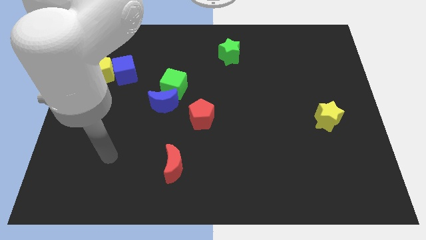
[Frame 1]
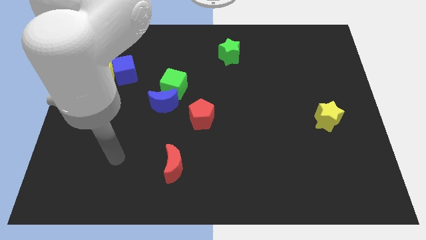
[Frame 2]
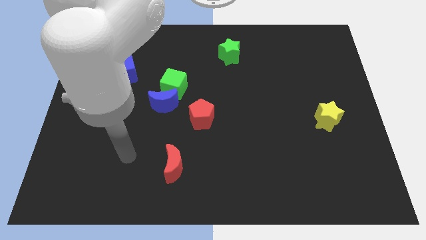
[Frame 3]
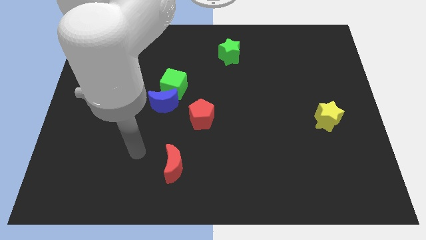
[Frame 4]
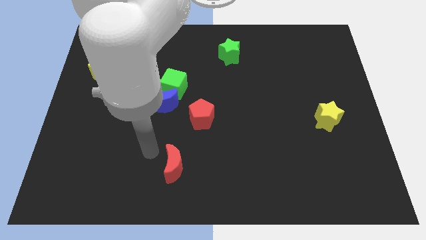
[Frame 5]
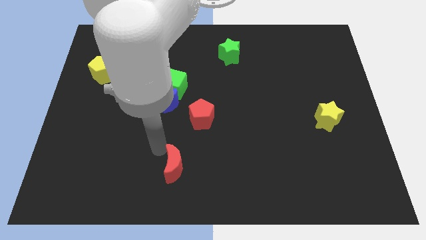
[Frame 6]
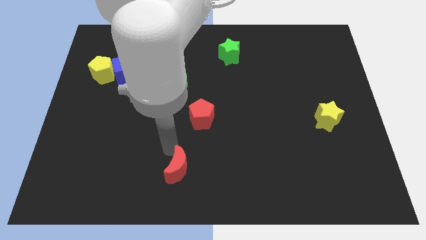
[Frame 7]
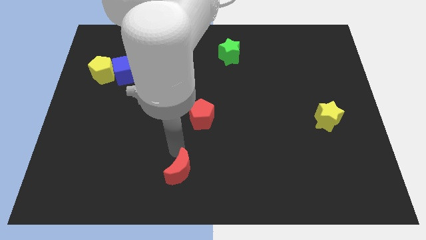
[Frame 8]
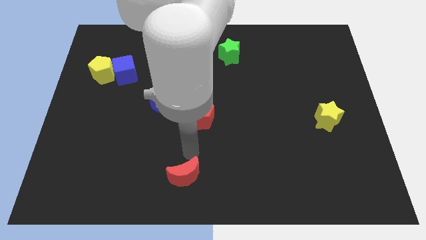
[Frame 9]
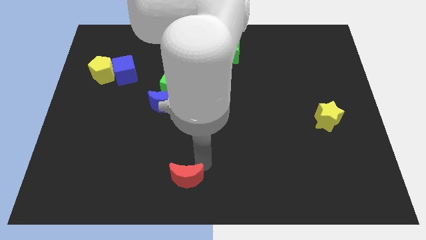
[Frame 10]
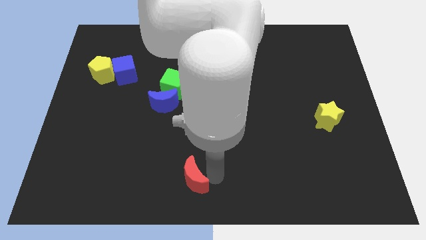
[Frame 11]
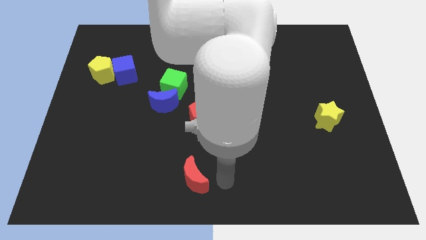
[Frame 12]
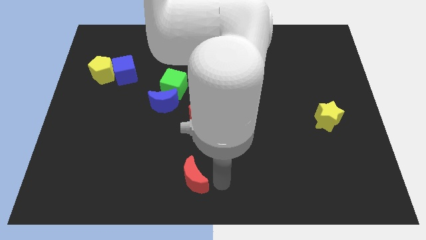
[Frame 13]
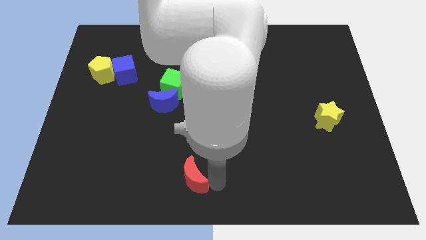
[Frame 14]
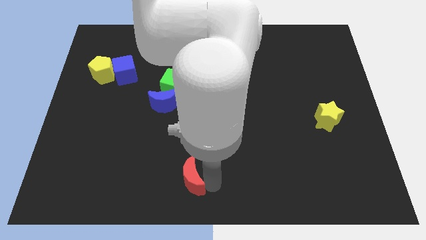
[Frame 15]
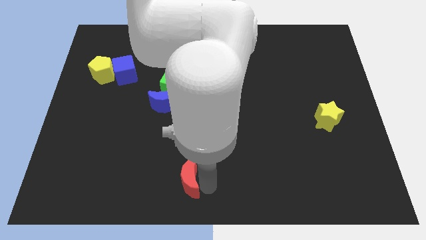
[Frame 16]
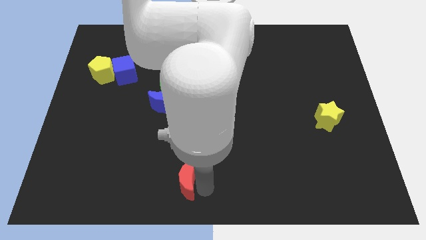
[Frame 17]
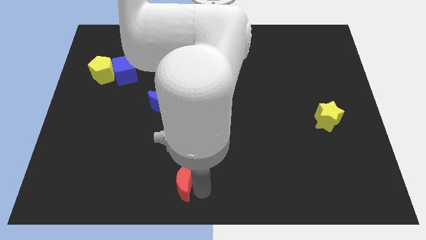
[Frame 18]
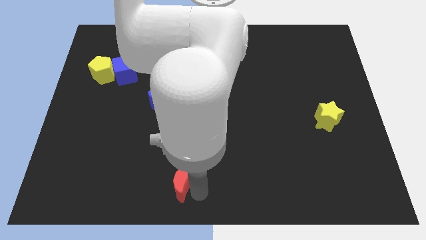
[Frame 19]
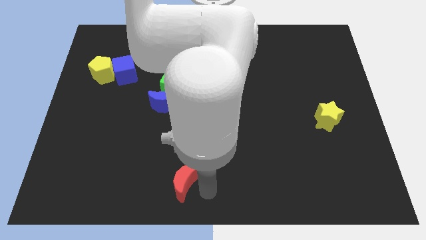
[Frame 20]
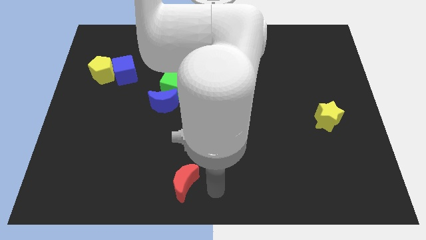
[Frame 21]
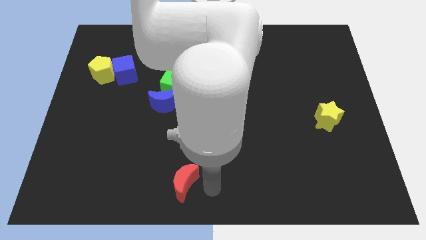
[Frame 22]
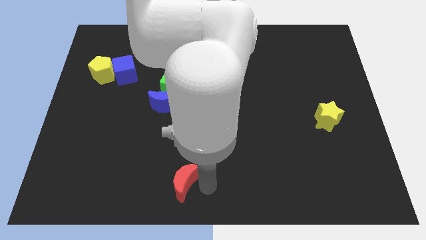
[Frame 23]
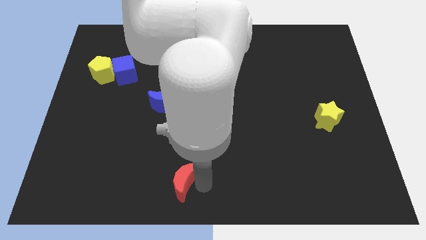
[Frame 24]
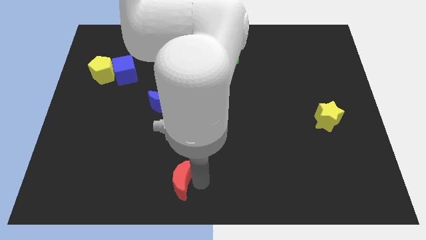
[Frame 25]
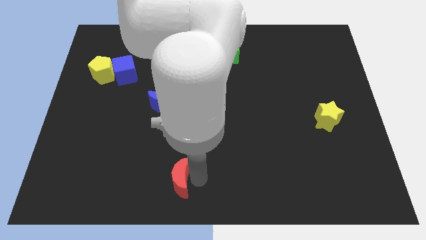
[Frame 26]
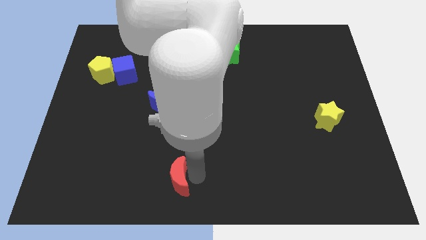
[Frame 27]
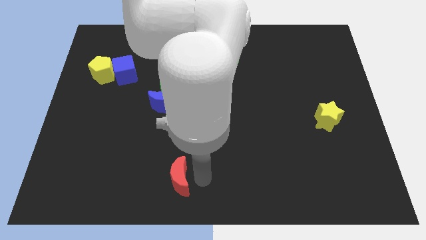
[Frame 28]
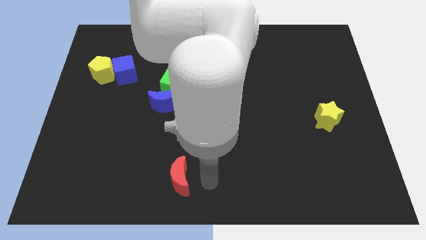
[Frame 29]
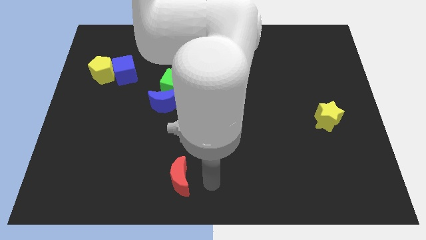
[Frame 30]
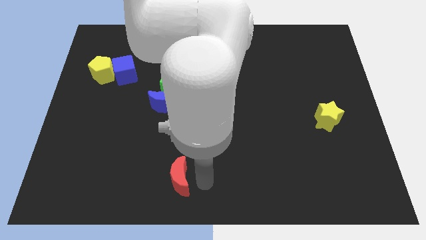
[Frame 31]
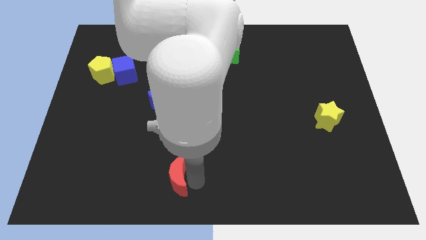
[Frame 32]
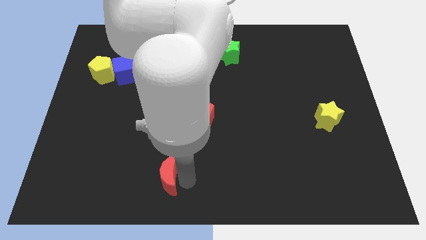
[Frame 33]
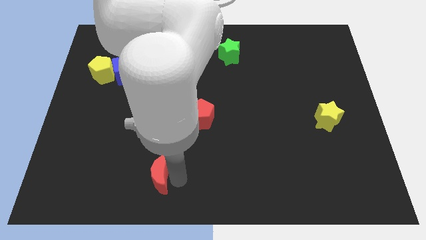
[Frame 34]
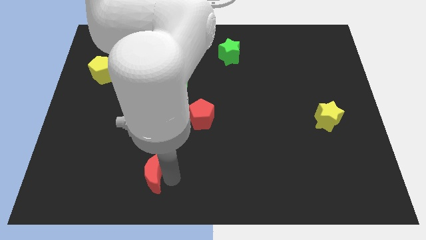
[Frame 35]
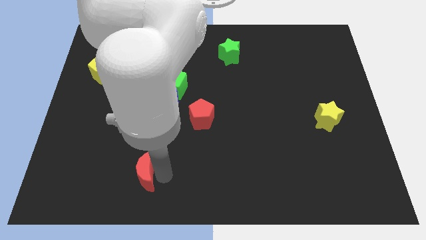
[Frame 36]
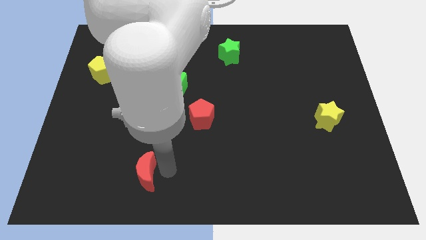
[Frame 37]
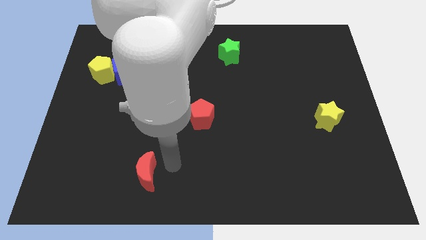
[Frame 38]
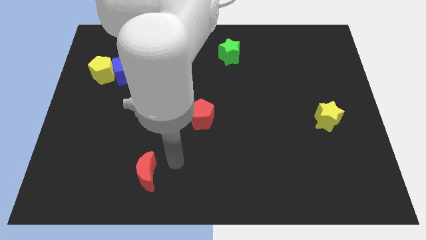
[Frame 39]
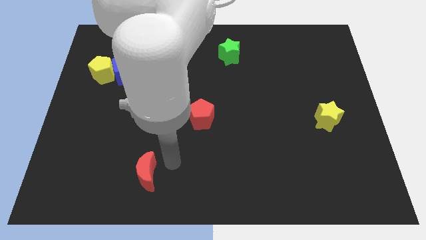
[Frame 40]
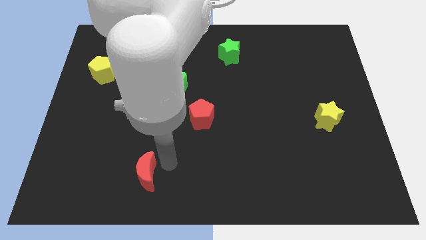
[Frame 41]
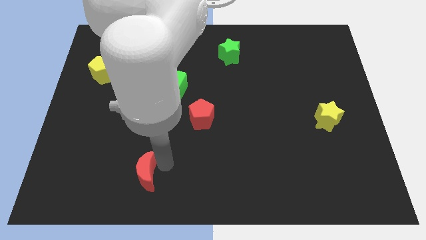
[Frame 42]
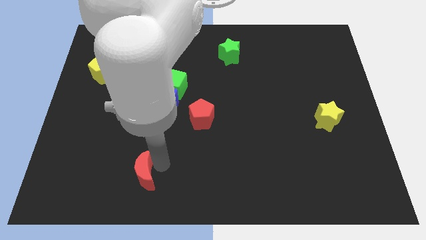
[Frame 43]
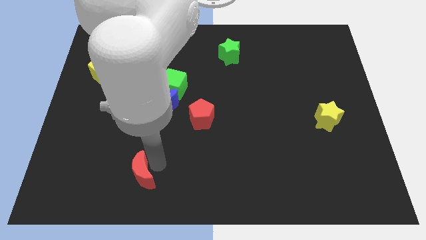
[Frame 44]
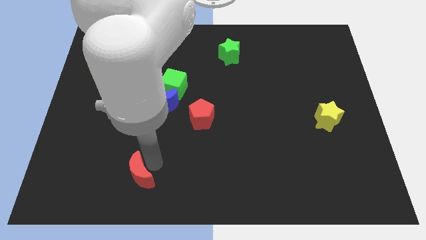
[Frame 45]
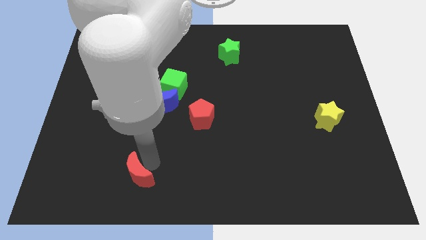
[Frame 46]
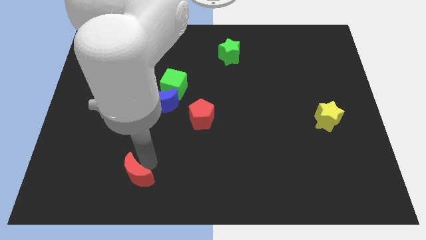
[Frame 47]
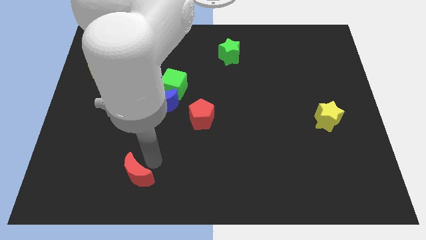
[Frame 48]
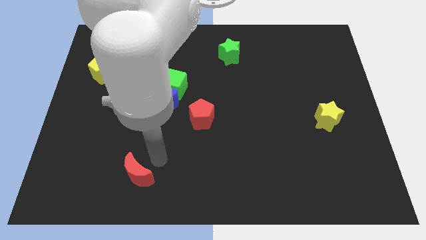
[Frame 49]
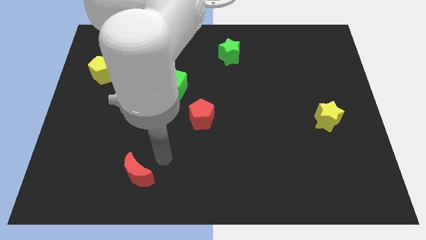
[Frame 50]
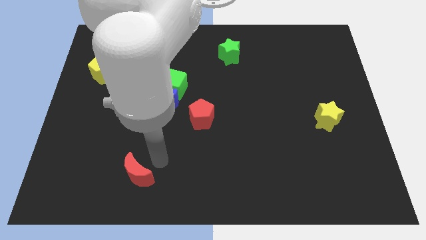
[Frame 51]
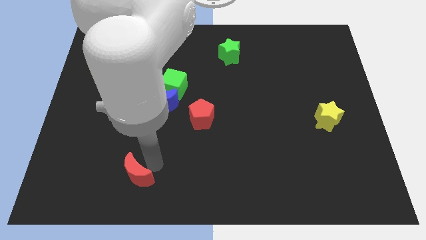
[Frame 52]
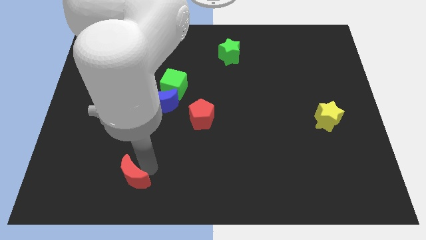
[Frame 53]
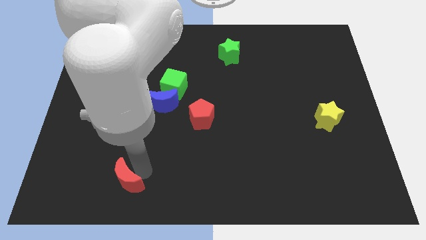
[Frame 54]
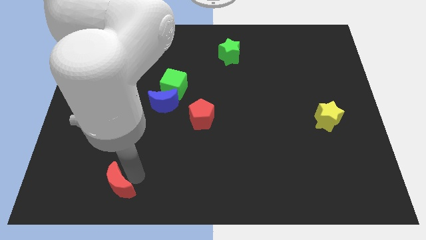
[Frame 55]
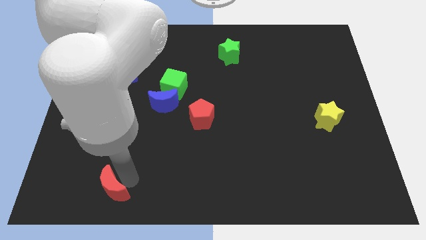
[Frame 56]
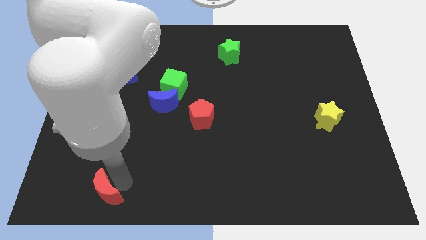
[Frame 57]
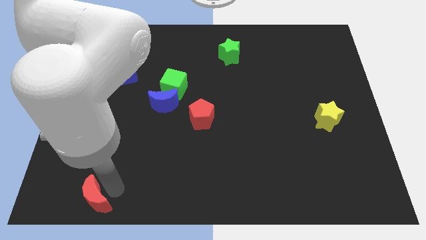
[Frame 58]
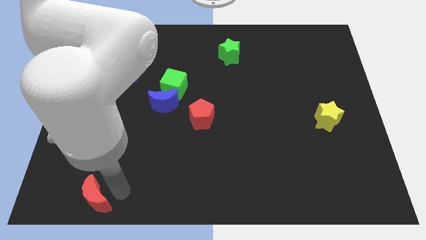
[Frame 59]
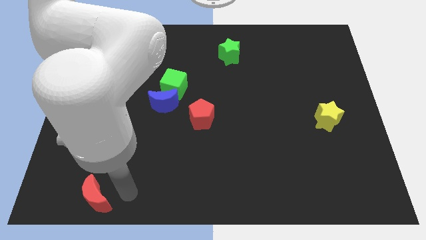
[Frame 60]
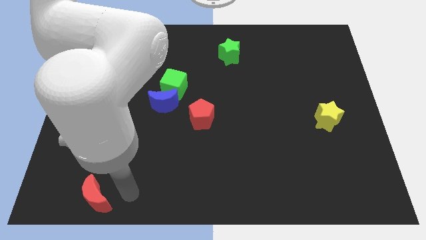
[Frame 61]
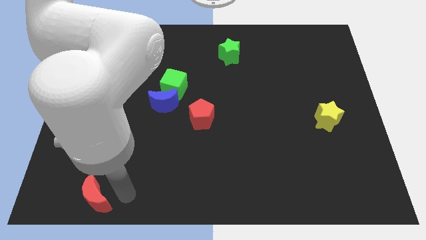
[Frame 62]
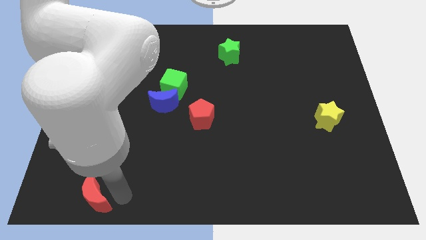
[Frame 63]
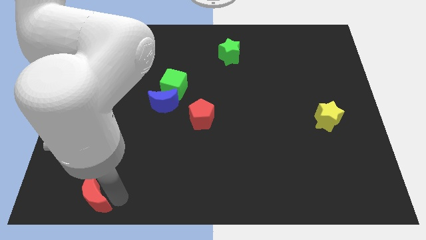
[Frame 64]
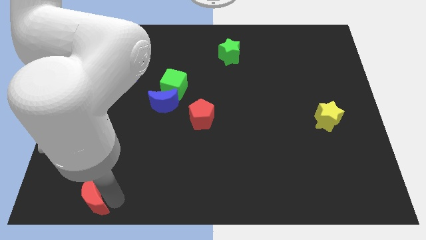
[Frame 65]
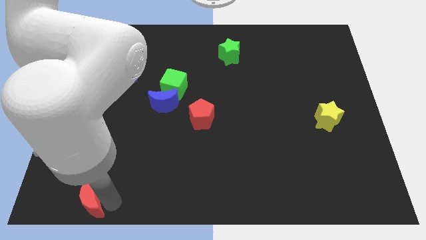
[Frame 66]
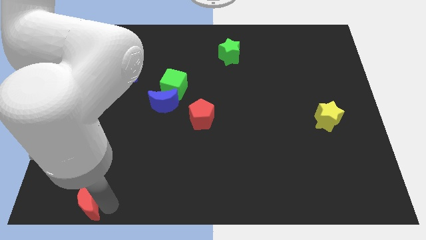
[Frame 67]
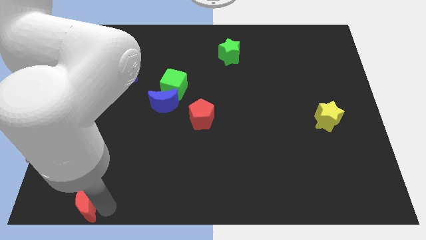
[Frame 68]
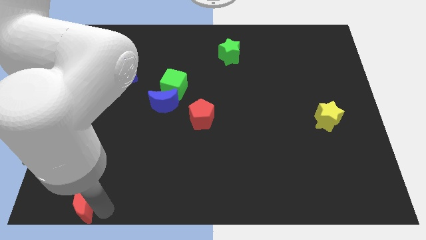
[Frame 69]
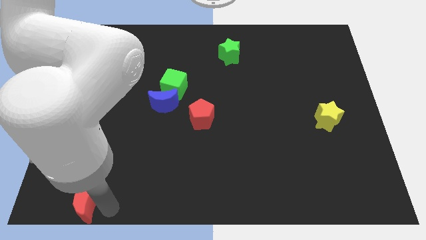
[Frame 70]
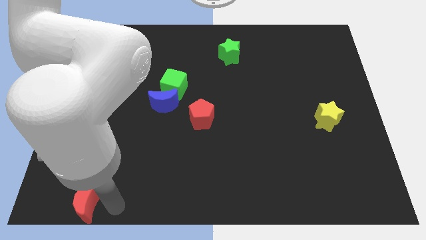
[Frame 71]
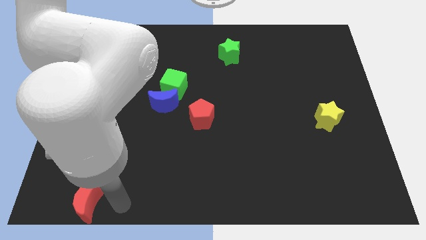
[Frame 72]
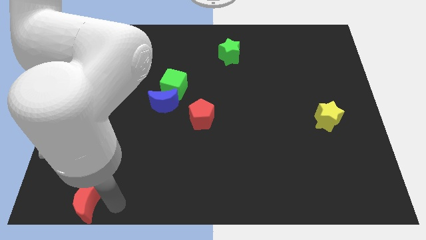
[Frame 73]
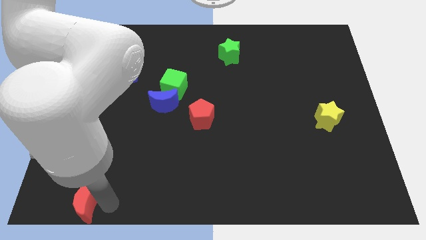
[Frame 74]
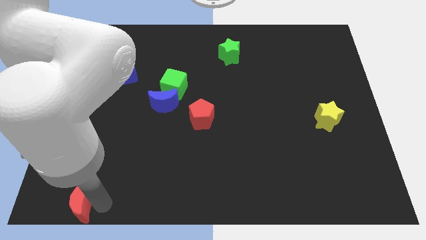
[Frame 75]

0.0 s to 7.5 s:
slide the red moon to the bottom left corner
